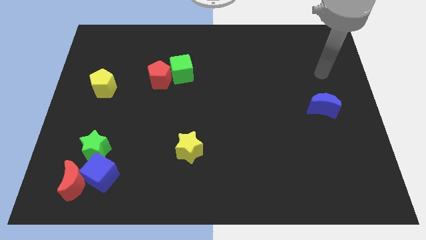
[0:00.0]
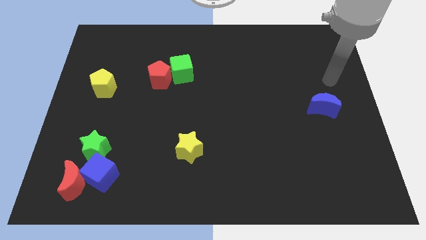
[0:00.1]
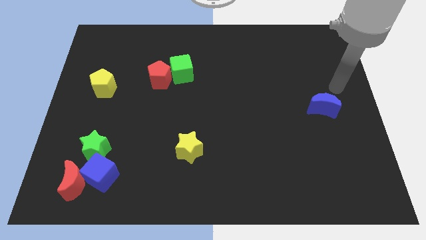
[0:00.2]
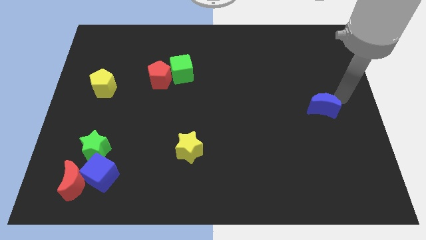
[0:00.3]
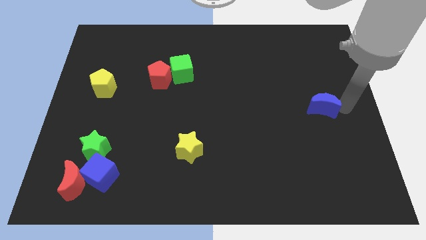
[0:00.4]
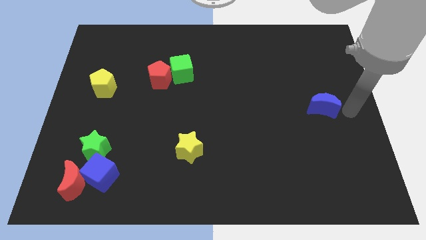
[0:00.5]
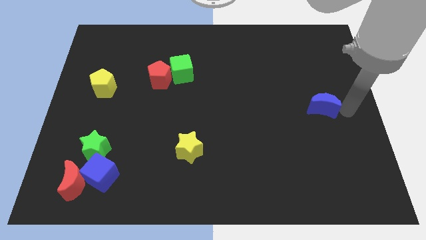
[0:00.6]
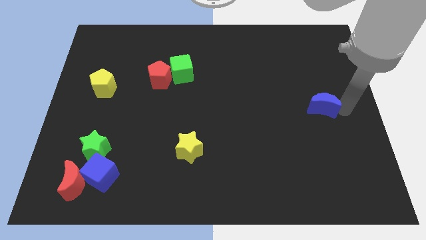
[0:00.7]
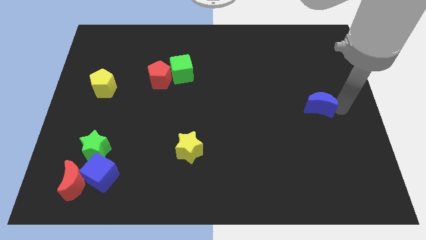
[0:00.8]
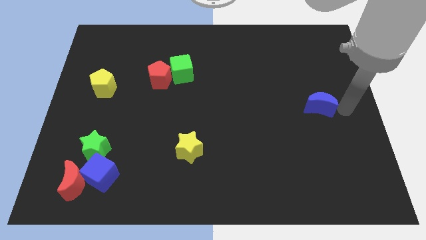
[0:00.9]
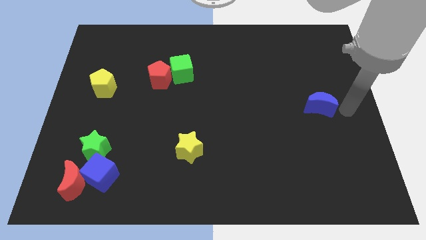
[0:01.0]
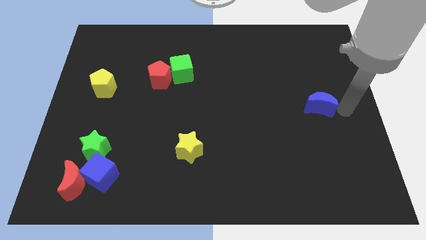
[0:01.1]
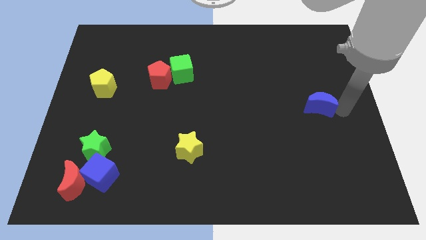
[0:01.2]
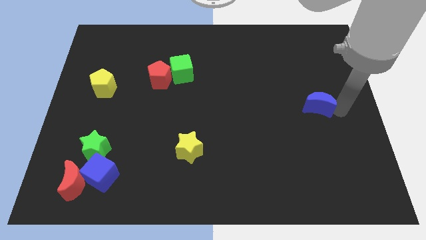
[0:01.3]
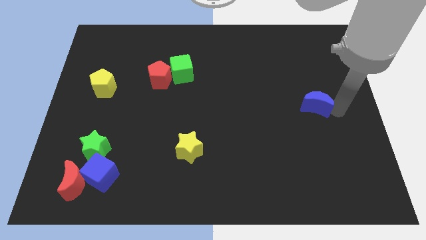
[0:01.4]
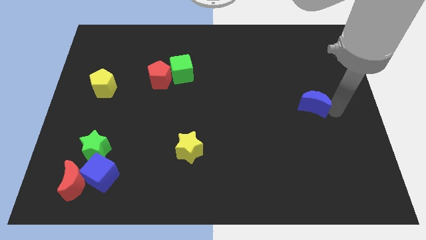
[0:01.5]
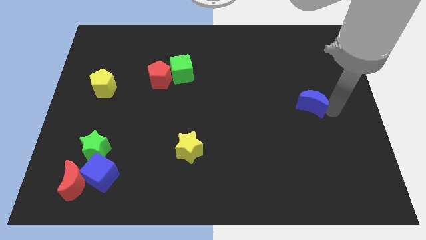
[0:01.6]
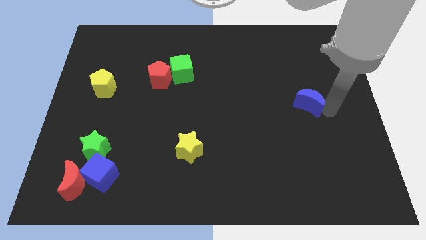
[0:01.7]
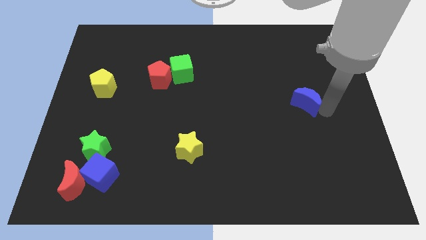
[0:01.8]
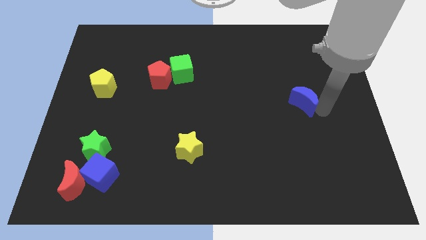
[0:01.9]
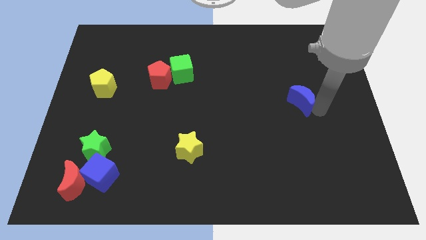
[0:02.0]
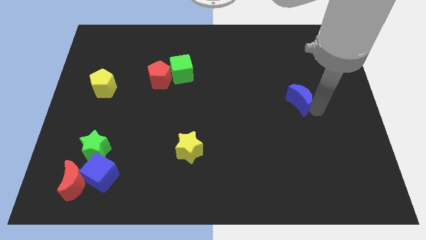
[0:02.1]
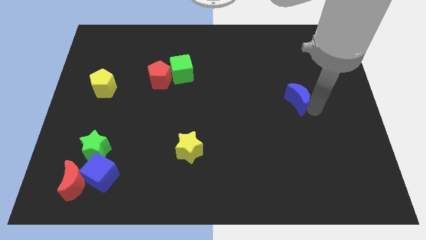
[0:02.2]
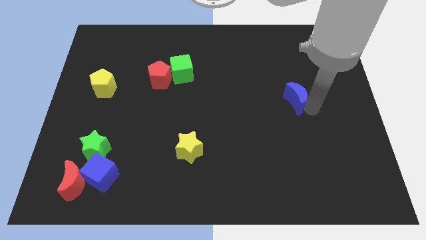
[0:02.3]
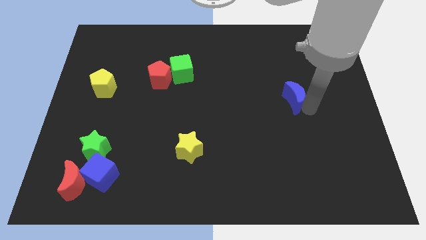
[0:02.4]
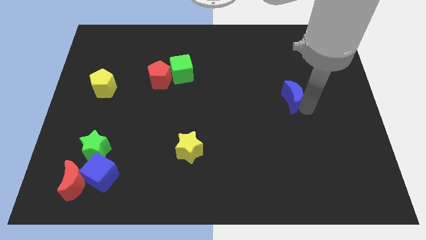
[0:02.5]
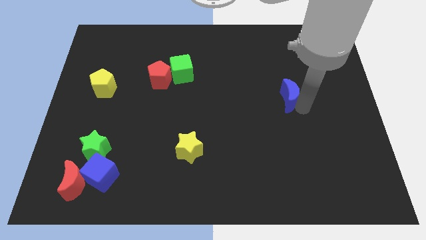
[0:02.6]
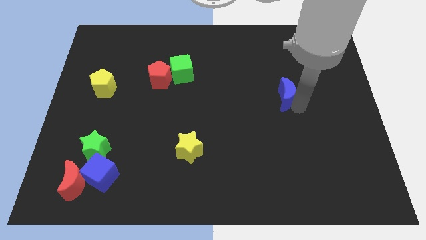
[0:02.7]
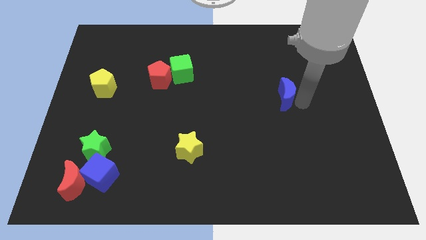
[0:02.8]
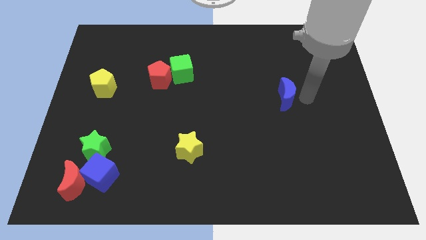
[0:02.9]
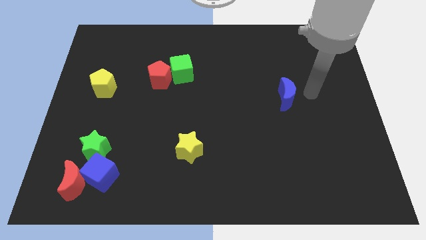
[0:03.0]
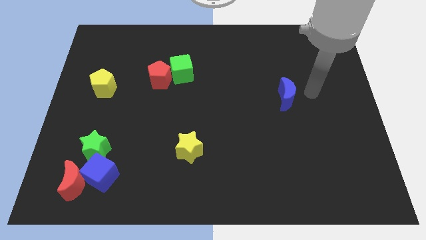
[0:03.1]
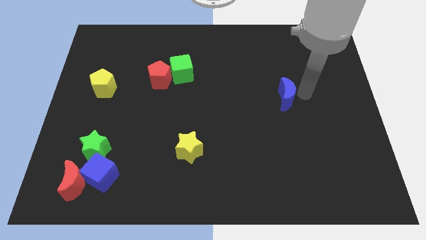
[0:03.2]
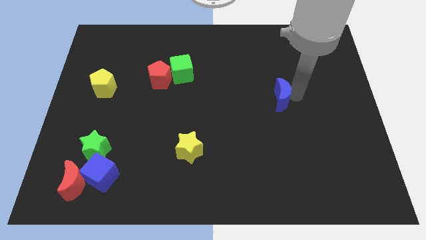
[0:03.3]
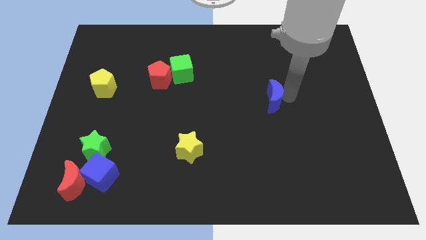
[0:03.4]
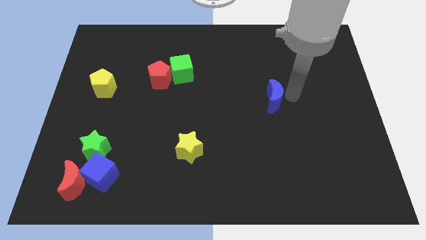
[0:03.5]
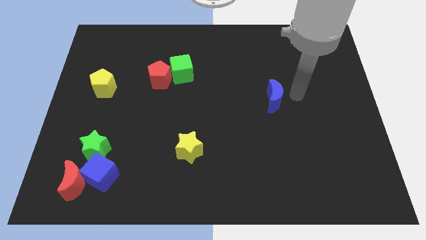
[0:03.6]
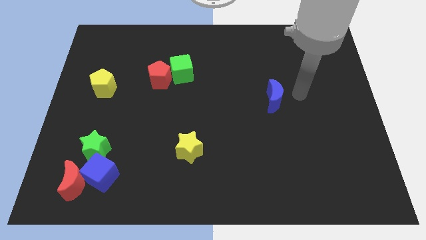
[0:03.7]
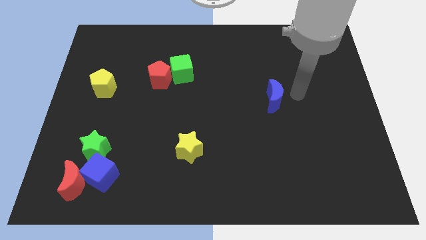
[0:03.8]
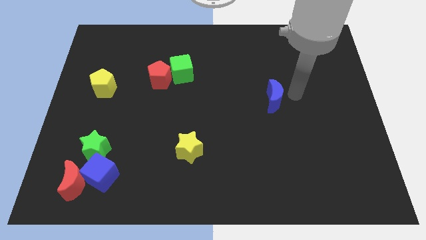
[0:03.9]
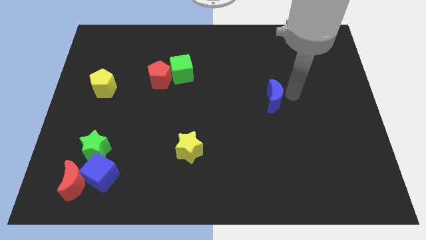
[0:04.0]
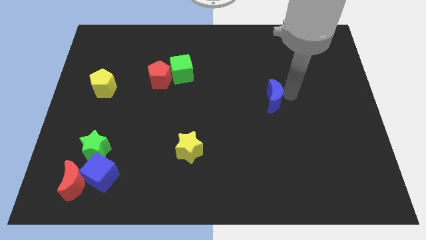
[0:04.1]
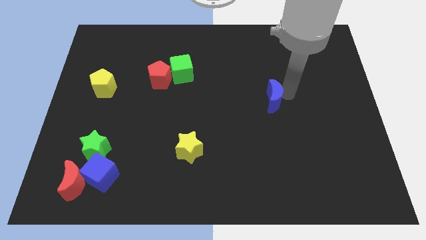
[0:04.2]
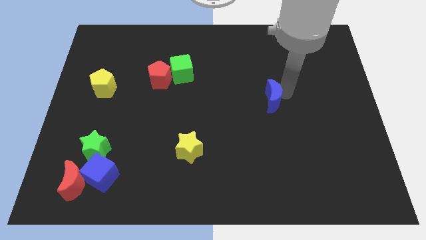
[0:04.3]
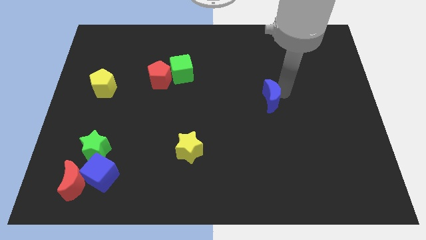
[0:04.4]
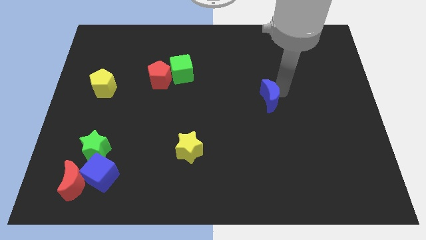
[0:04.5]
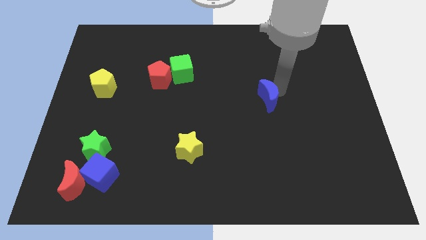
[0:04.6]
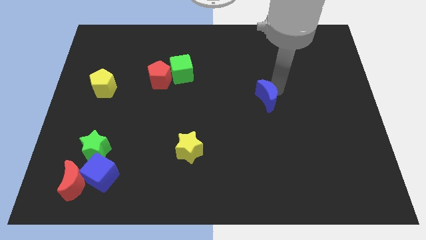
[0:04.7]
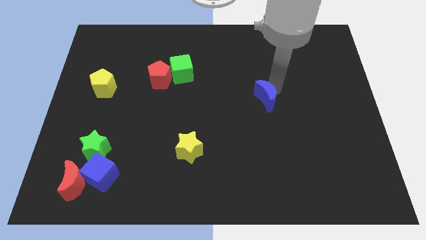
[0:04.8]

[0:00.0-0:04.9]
move the blue moon to the middle

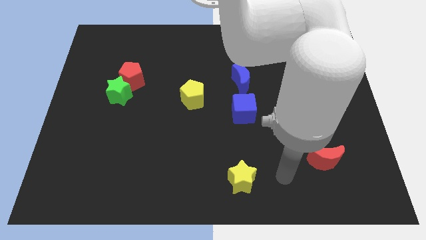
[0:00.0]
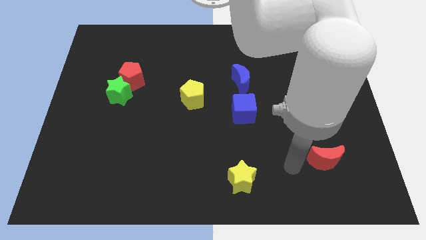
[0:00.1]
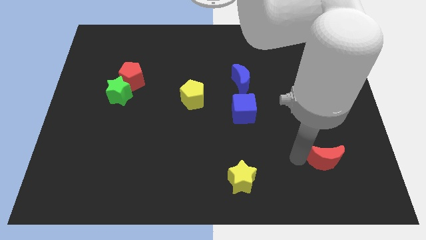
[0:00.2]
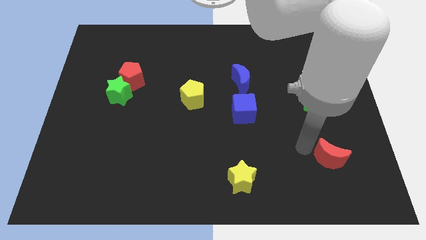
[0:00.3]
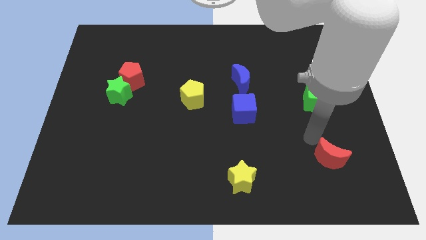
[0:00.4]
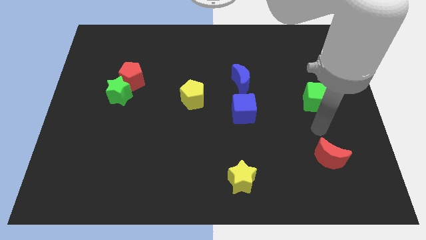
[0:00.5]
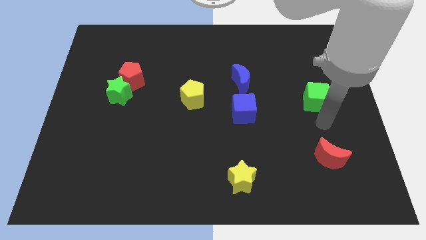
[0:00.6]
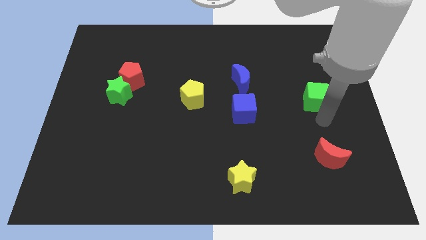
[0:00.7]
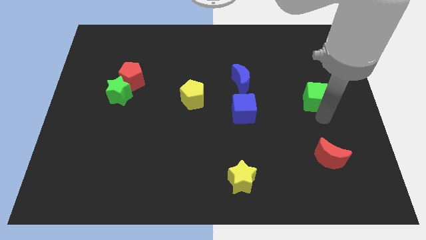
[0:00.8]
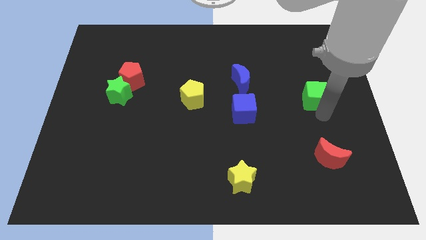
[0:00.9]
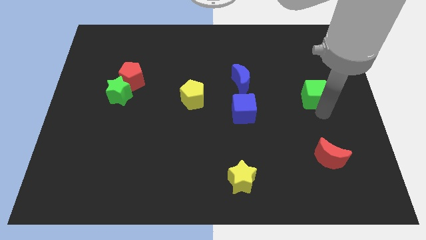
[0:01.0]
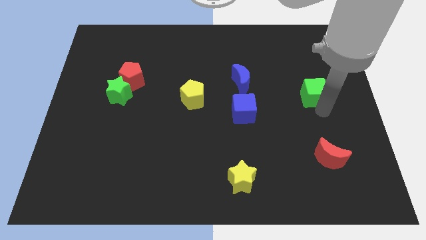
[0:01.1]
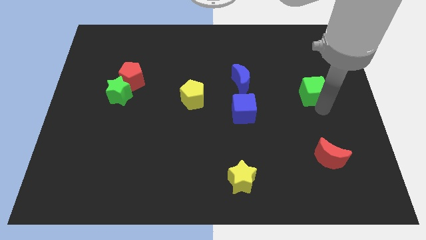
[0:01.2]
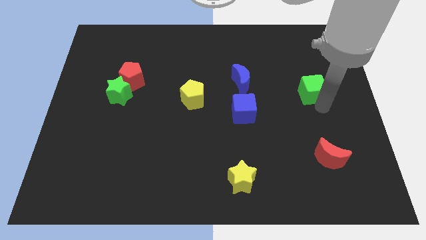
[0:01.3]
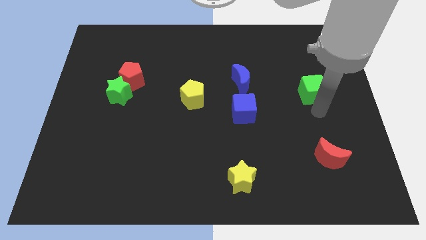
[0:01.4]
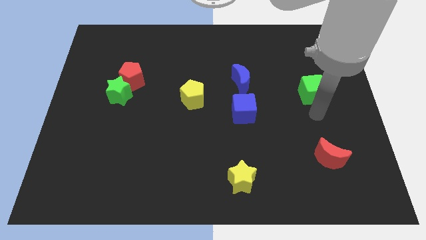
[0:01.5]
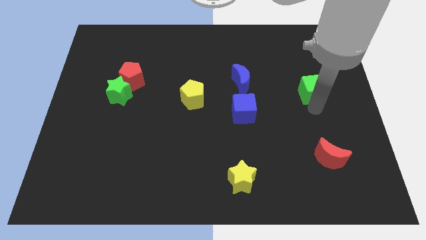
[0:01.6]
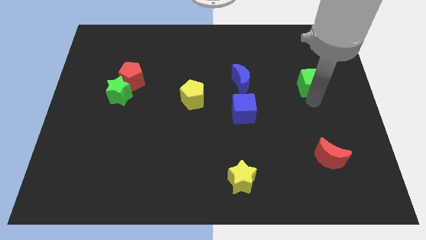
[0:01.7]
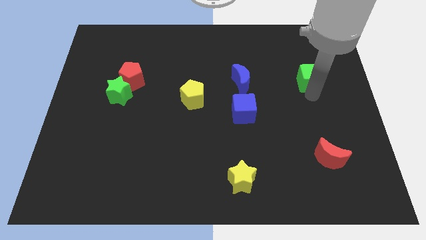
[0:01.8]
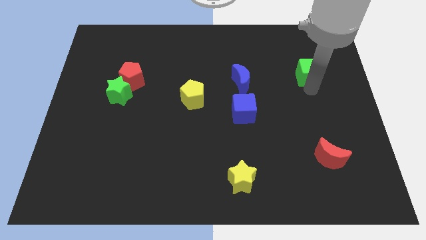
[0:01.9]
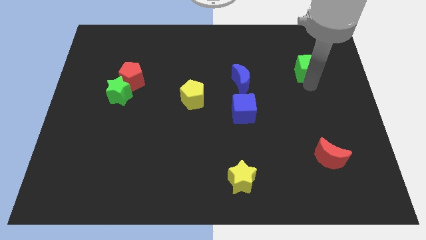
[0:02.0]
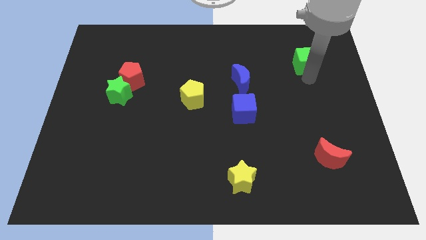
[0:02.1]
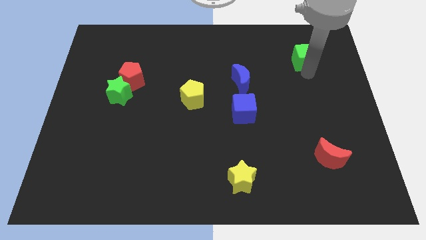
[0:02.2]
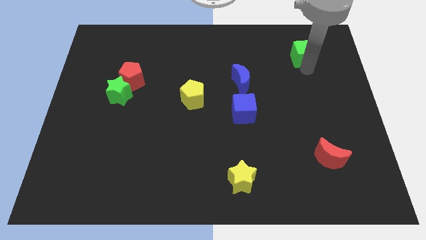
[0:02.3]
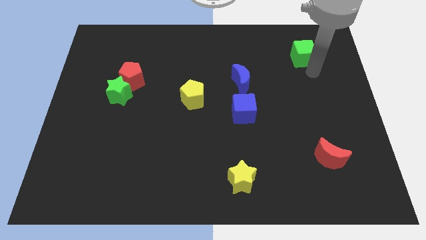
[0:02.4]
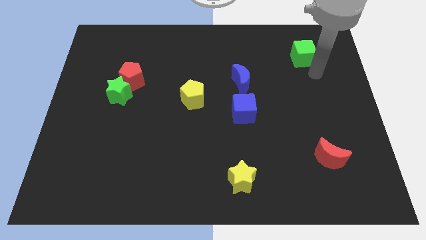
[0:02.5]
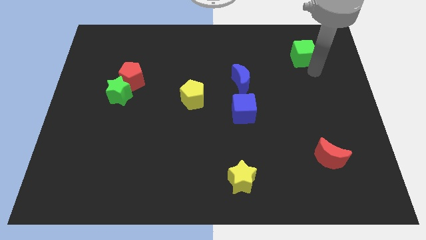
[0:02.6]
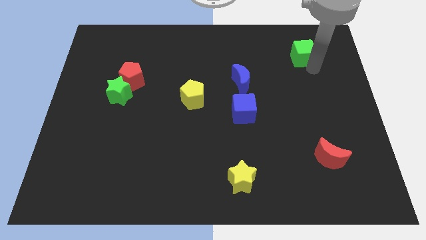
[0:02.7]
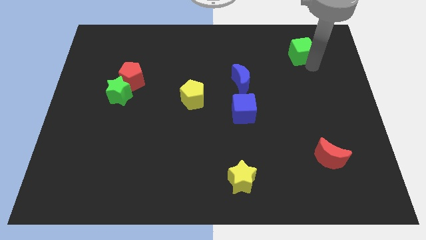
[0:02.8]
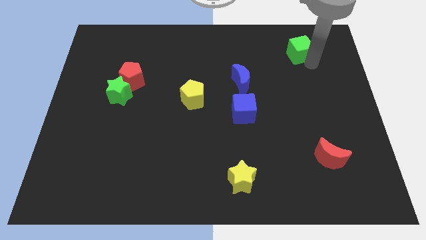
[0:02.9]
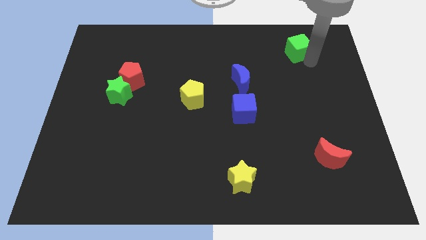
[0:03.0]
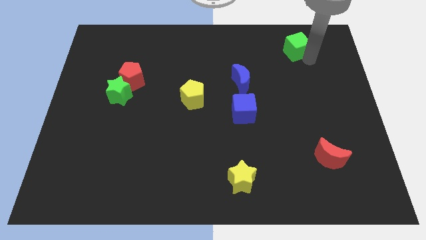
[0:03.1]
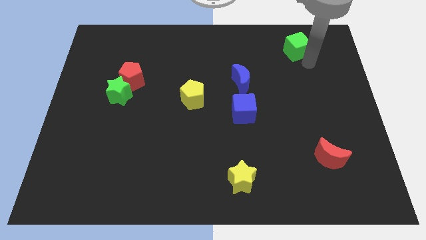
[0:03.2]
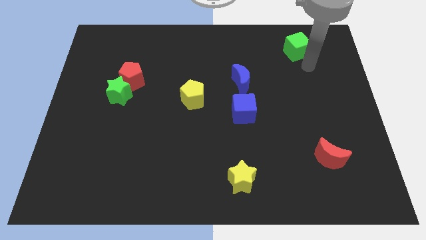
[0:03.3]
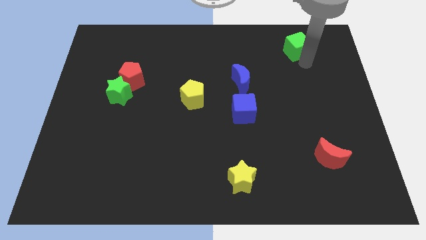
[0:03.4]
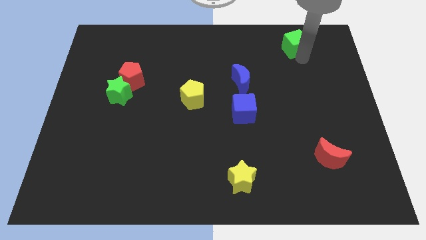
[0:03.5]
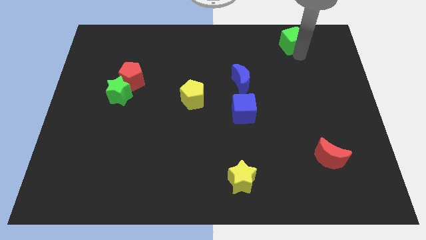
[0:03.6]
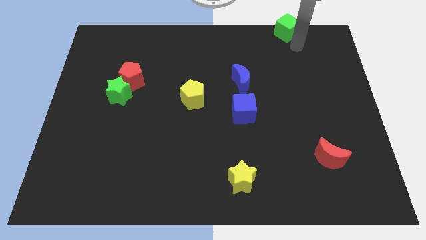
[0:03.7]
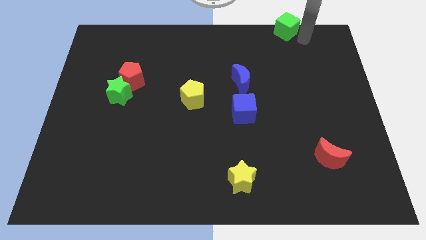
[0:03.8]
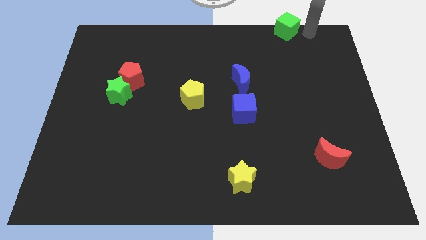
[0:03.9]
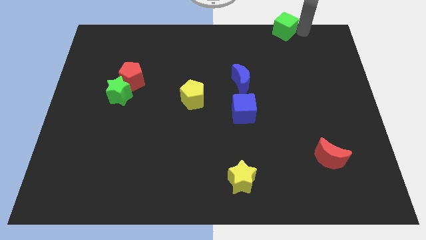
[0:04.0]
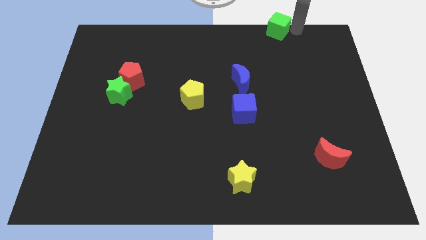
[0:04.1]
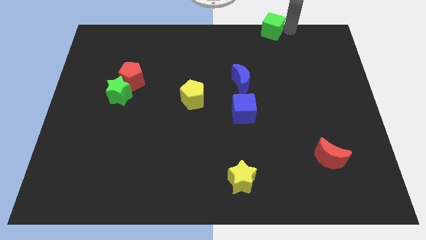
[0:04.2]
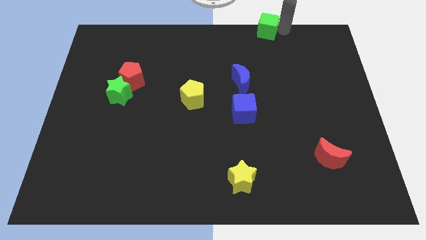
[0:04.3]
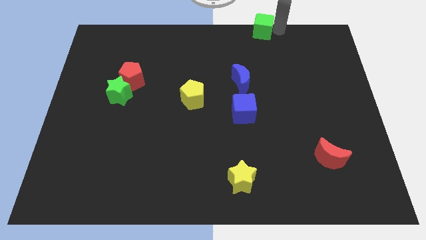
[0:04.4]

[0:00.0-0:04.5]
put the green cube to the top side
